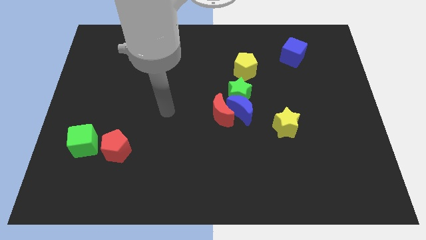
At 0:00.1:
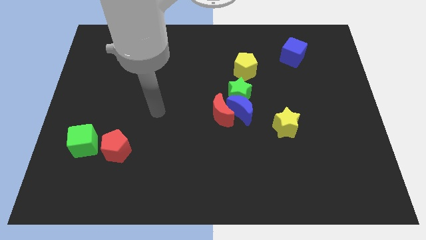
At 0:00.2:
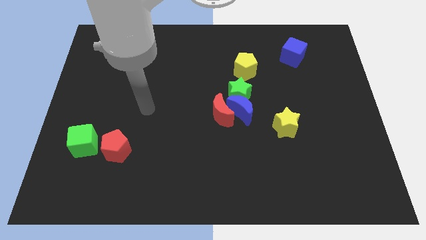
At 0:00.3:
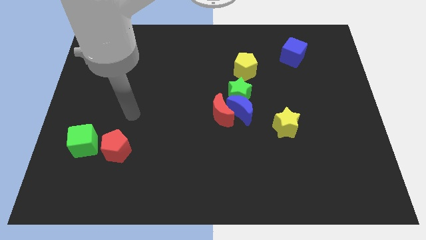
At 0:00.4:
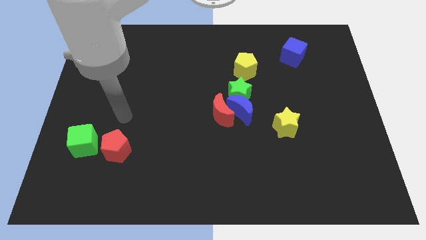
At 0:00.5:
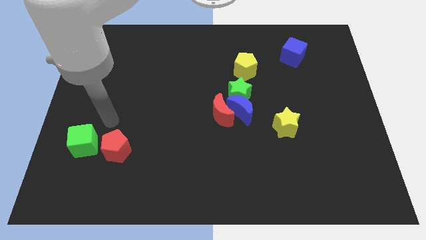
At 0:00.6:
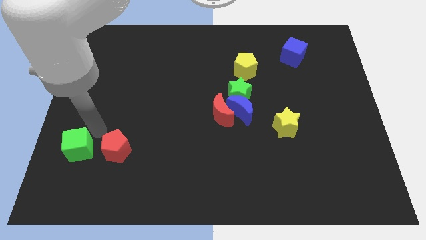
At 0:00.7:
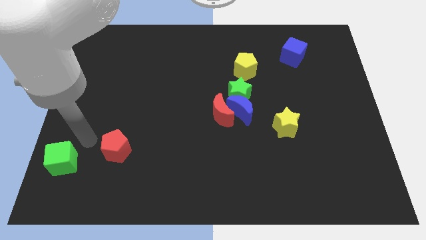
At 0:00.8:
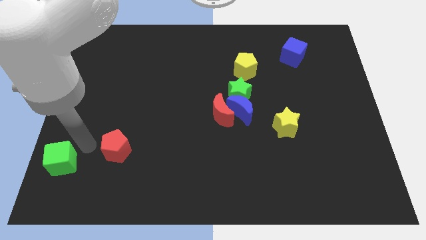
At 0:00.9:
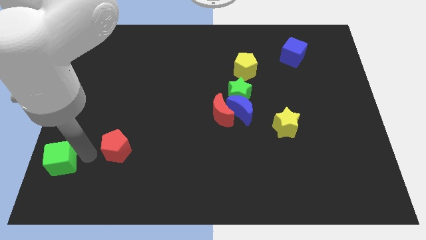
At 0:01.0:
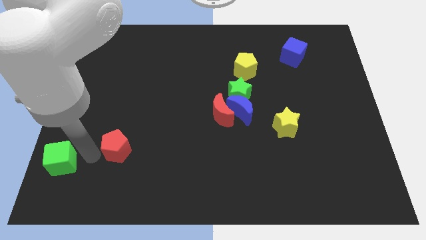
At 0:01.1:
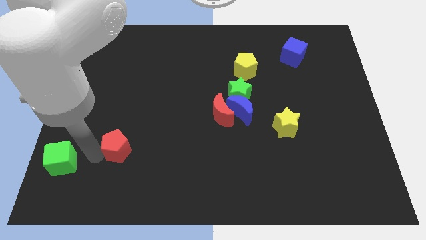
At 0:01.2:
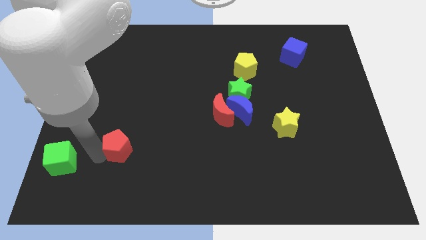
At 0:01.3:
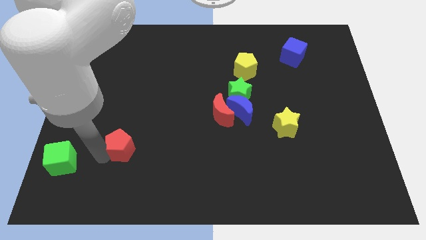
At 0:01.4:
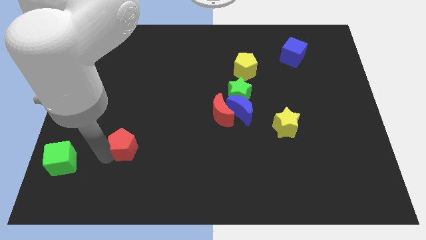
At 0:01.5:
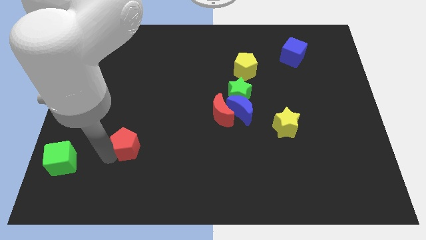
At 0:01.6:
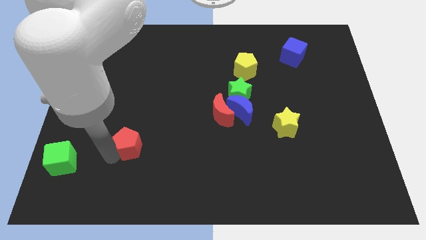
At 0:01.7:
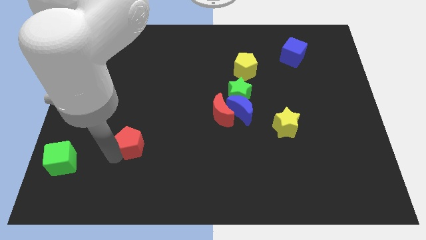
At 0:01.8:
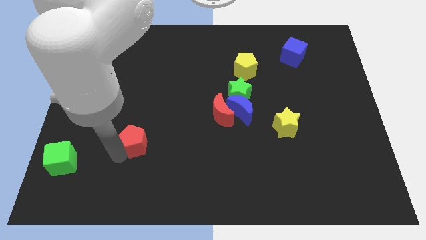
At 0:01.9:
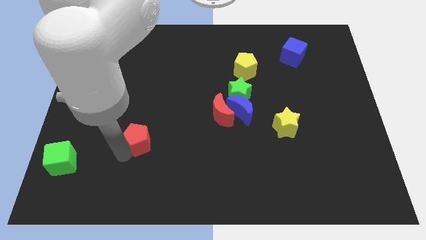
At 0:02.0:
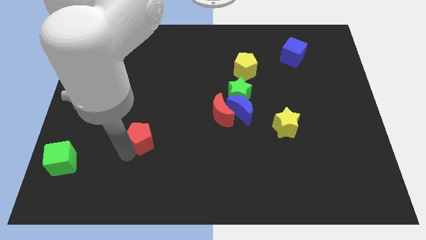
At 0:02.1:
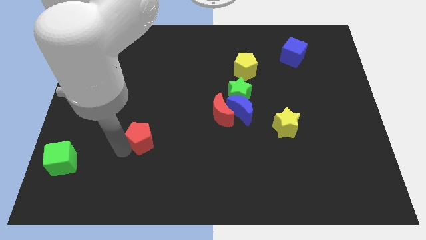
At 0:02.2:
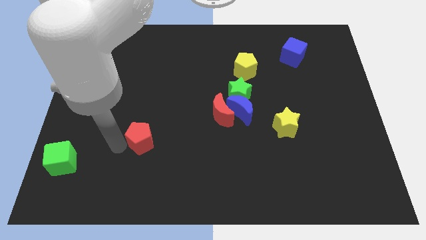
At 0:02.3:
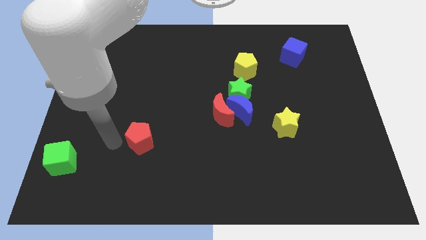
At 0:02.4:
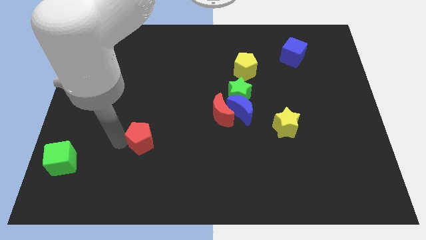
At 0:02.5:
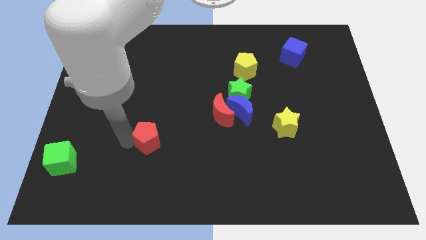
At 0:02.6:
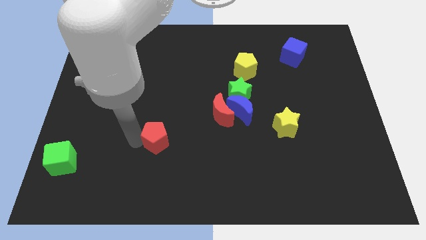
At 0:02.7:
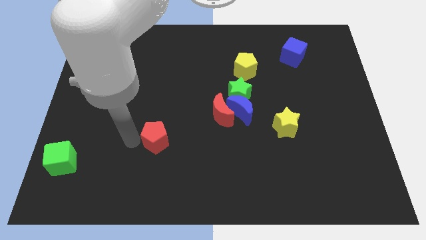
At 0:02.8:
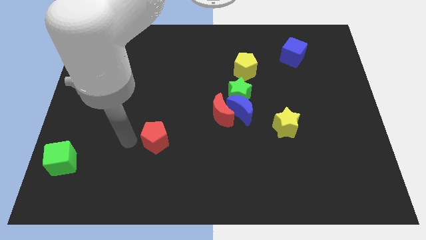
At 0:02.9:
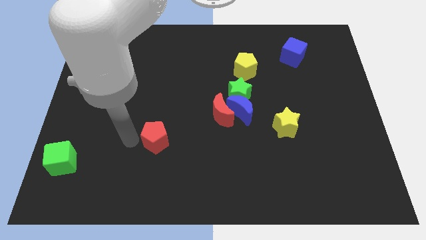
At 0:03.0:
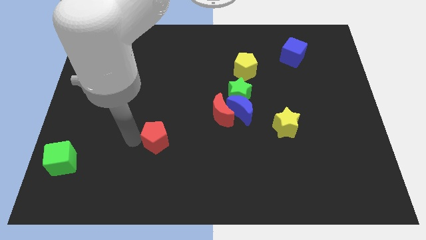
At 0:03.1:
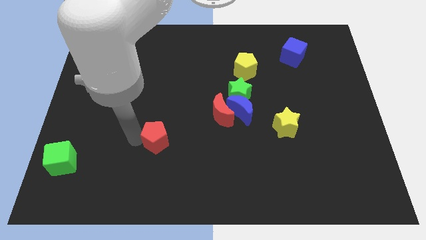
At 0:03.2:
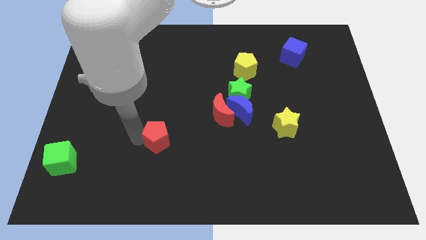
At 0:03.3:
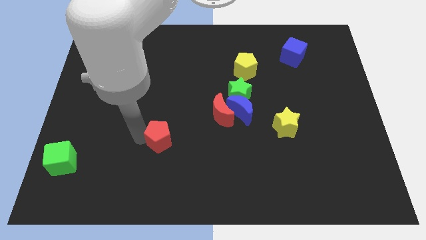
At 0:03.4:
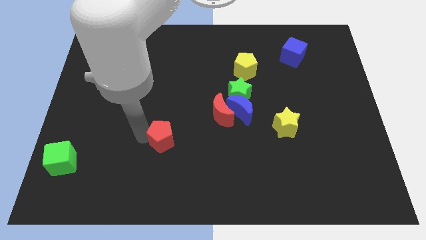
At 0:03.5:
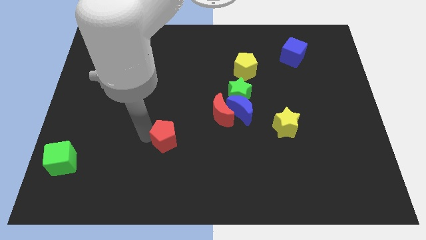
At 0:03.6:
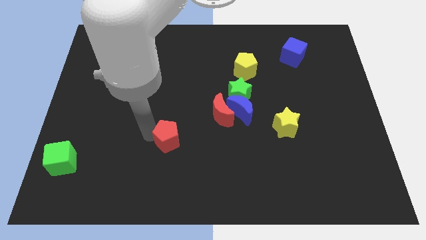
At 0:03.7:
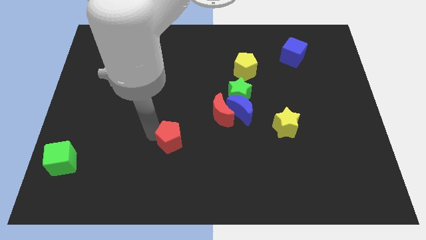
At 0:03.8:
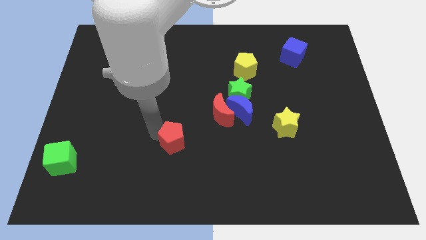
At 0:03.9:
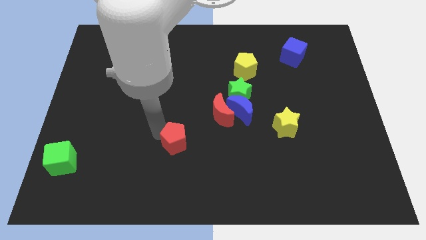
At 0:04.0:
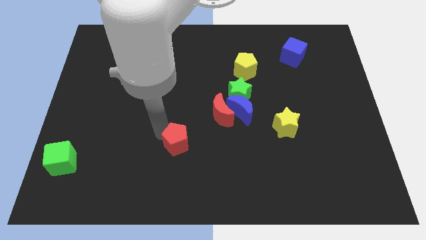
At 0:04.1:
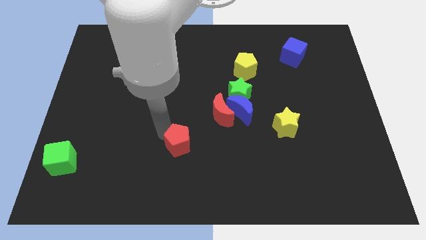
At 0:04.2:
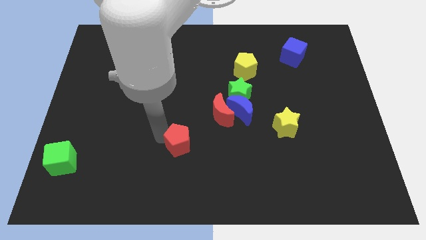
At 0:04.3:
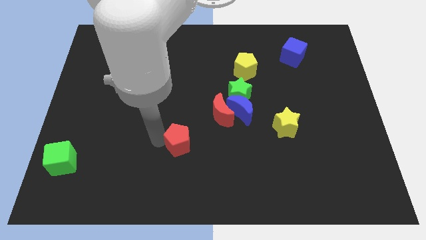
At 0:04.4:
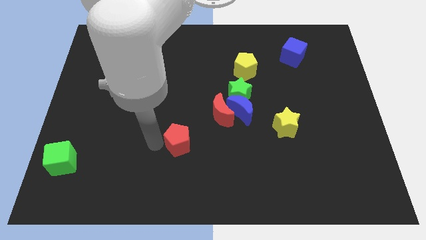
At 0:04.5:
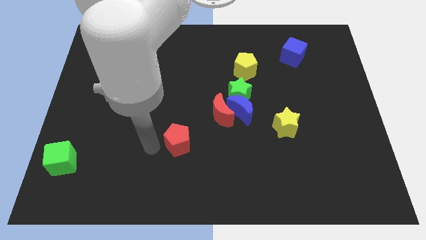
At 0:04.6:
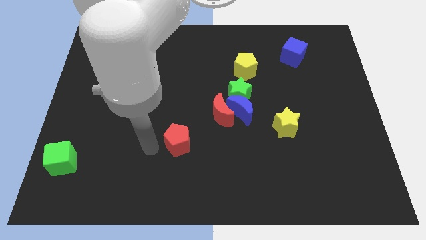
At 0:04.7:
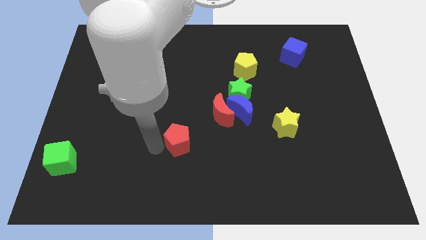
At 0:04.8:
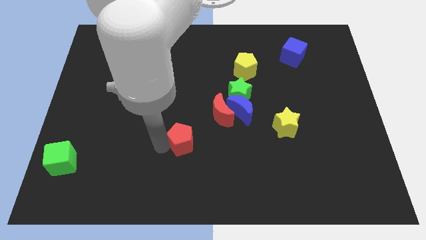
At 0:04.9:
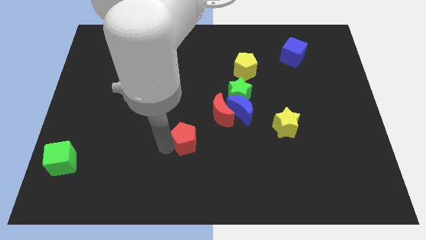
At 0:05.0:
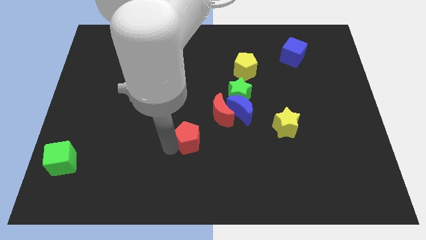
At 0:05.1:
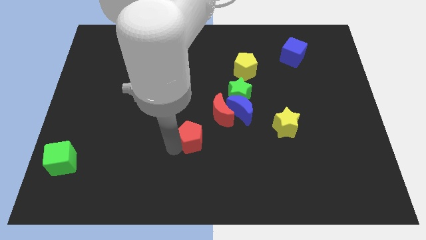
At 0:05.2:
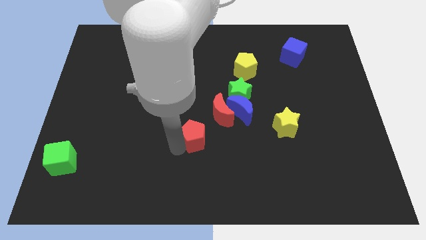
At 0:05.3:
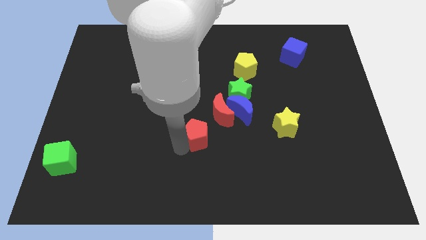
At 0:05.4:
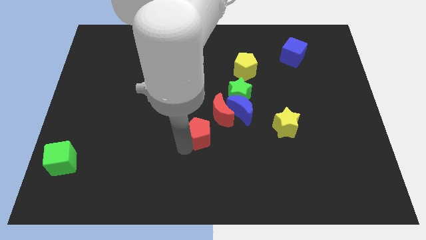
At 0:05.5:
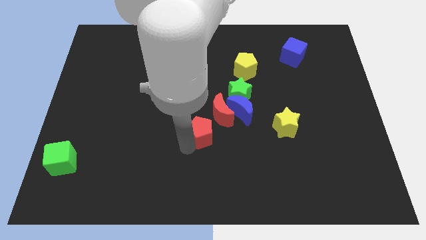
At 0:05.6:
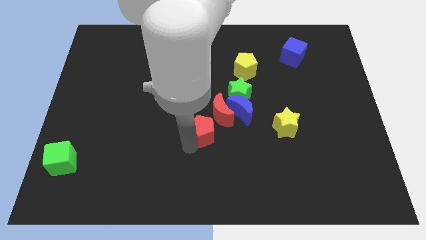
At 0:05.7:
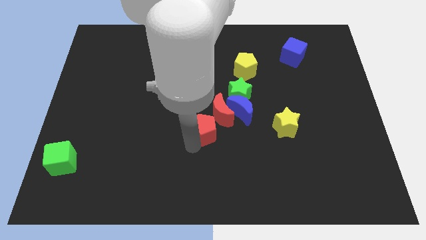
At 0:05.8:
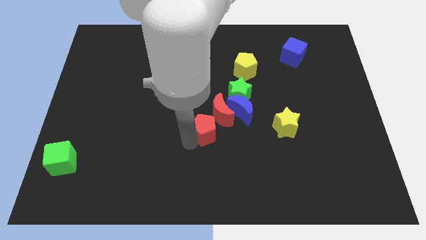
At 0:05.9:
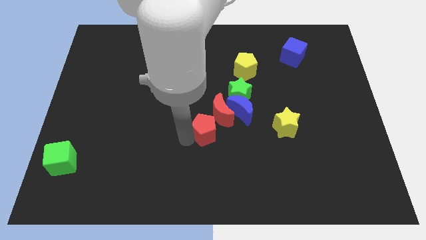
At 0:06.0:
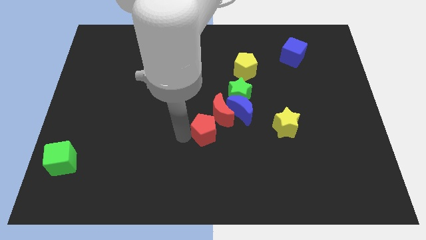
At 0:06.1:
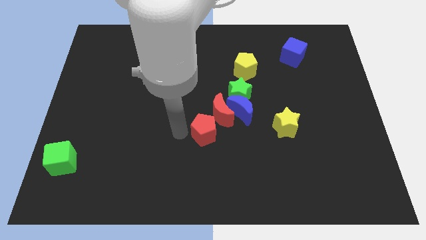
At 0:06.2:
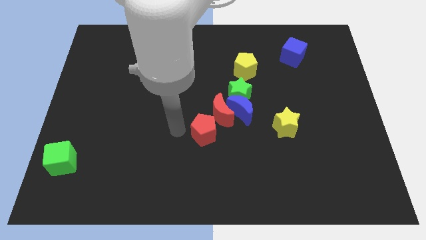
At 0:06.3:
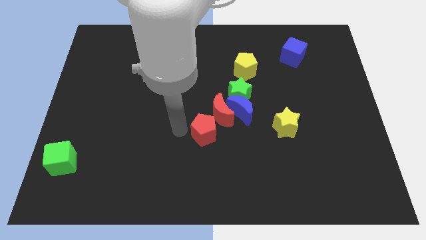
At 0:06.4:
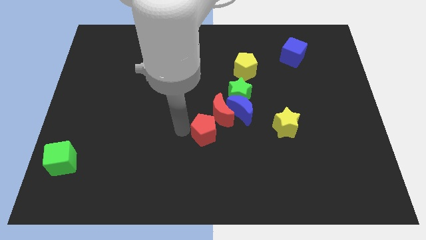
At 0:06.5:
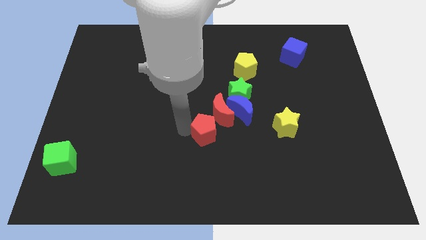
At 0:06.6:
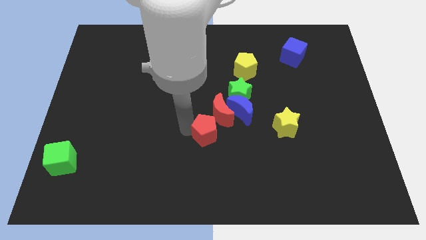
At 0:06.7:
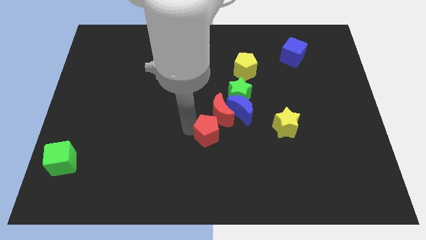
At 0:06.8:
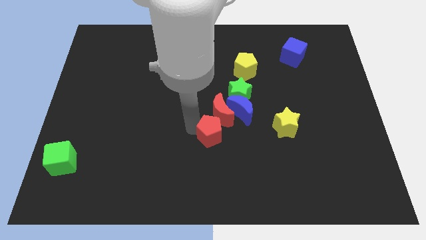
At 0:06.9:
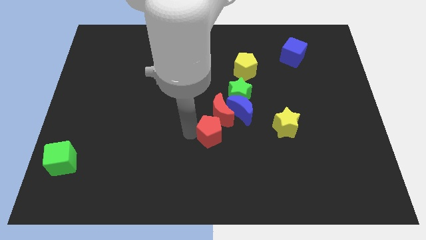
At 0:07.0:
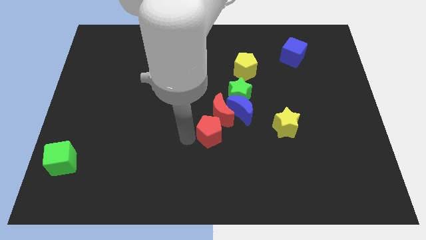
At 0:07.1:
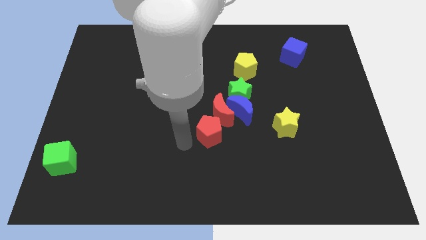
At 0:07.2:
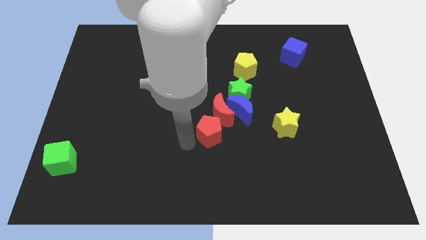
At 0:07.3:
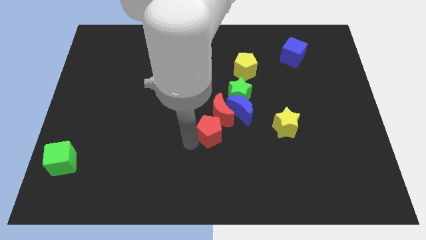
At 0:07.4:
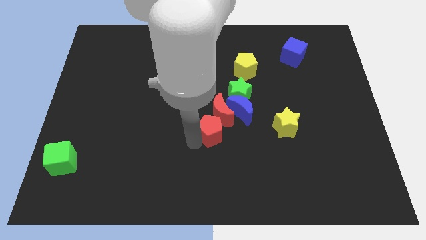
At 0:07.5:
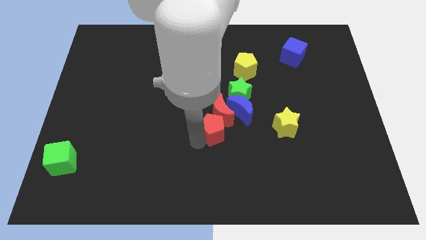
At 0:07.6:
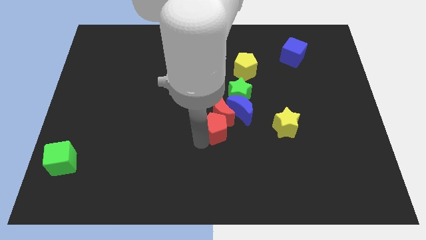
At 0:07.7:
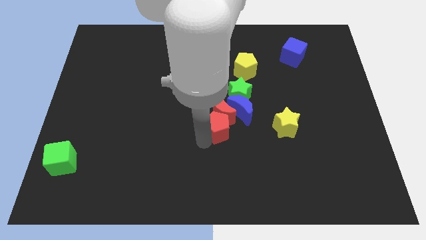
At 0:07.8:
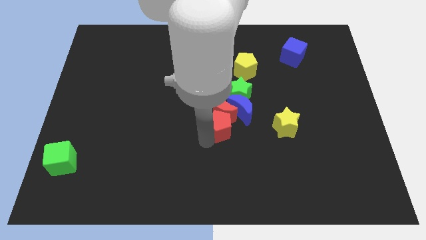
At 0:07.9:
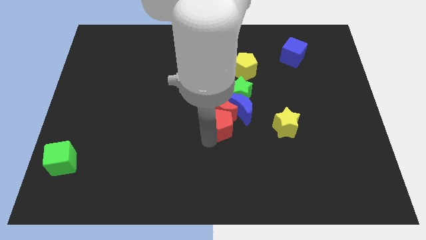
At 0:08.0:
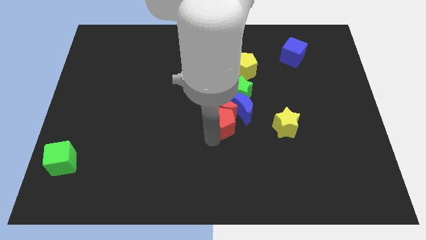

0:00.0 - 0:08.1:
push the red pentagon to the blue moon
